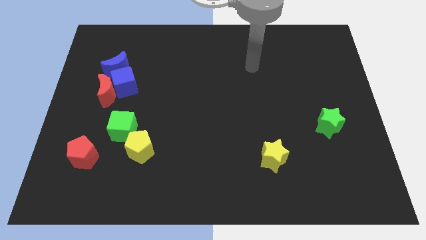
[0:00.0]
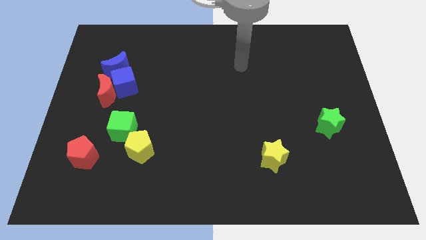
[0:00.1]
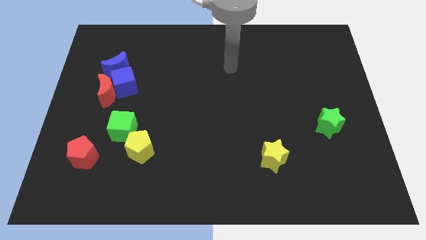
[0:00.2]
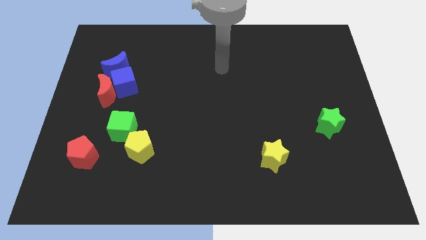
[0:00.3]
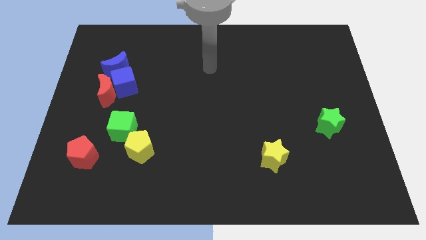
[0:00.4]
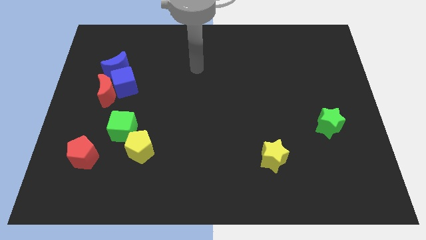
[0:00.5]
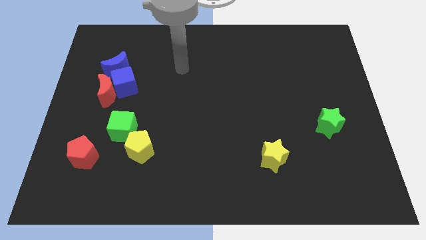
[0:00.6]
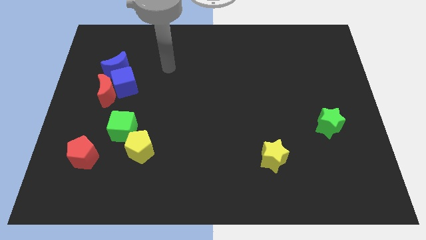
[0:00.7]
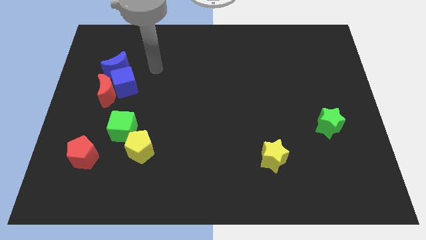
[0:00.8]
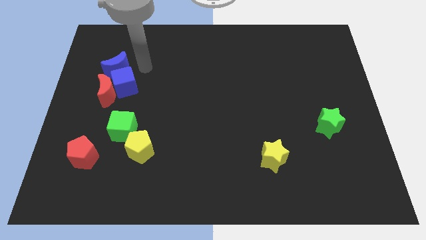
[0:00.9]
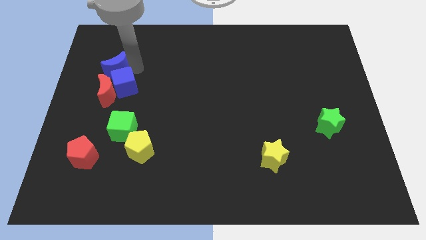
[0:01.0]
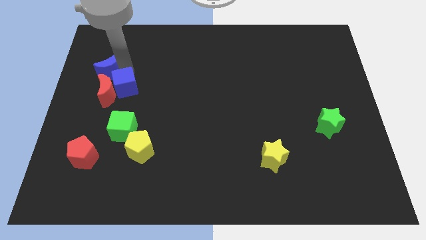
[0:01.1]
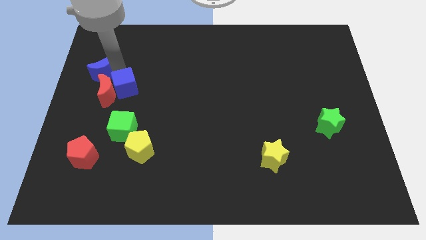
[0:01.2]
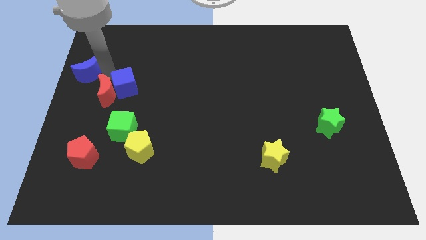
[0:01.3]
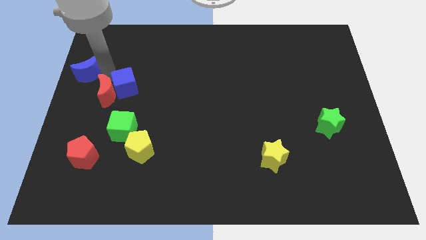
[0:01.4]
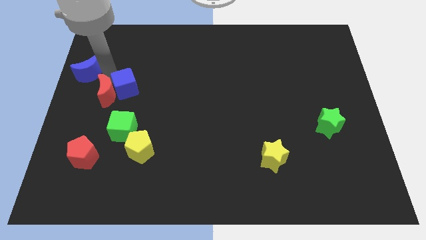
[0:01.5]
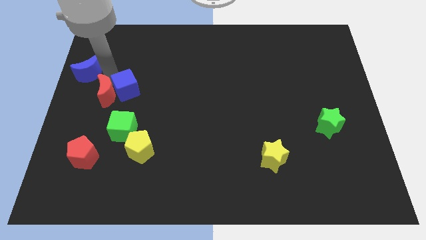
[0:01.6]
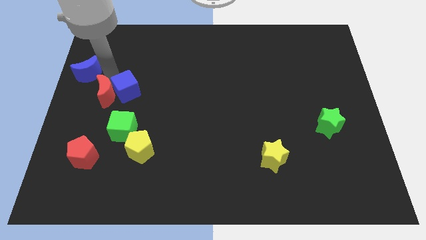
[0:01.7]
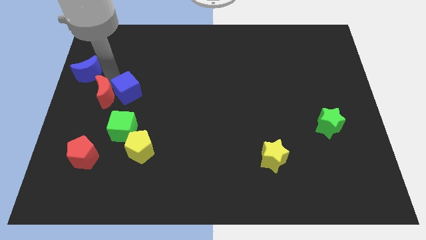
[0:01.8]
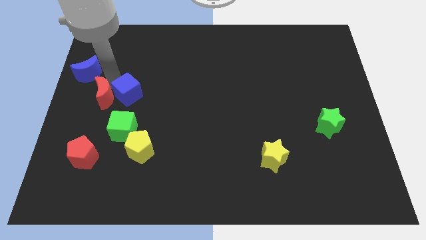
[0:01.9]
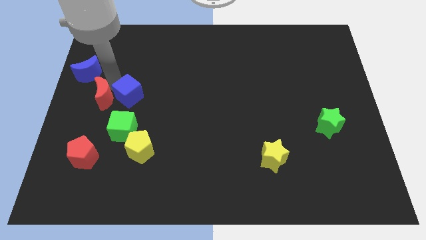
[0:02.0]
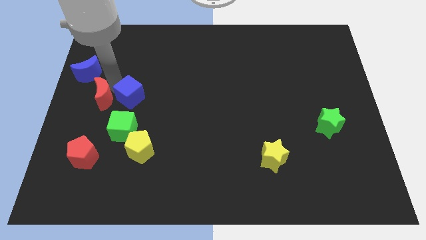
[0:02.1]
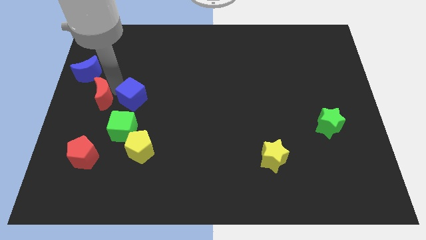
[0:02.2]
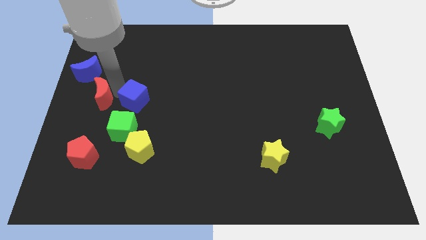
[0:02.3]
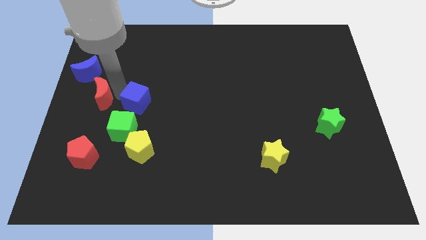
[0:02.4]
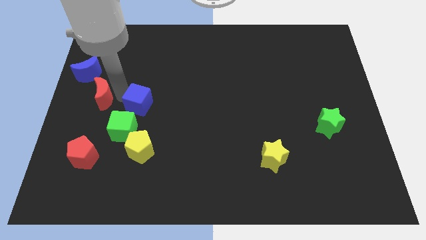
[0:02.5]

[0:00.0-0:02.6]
slightly move the blue cube downwards and to the right diagonally

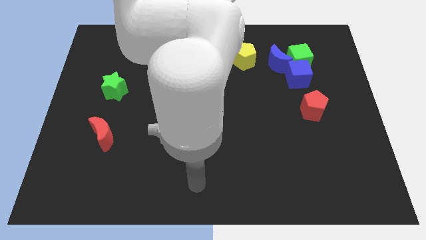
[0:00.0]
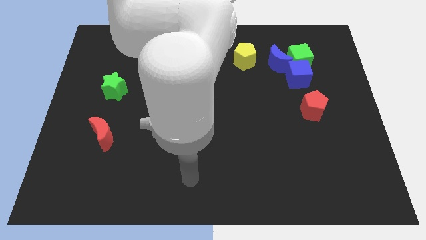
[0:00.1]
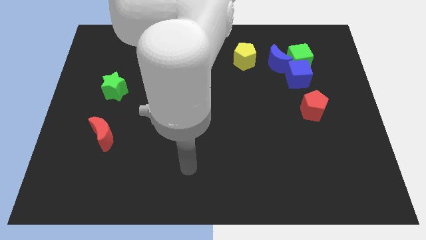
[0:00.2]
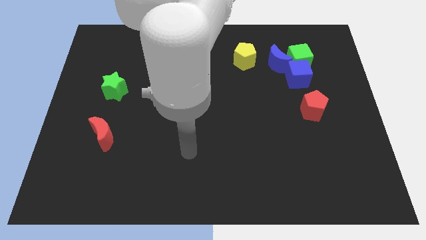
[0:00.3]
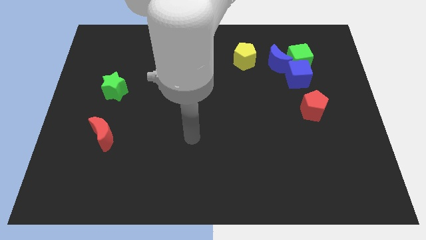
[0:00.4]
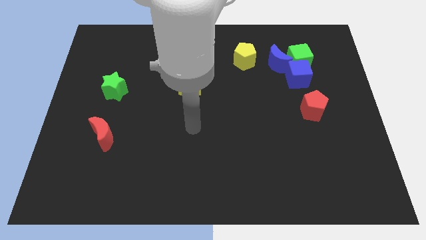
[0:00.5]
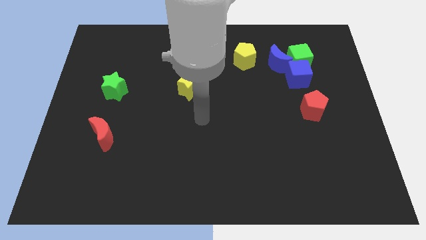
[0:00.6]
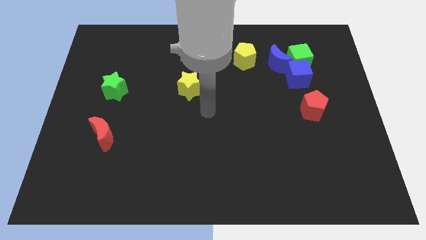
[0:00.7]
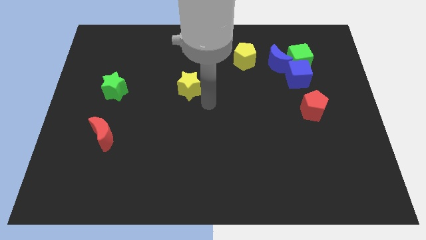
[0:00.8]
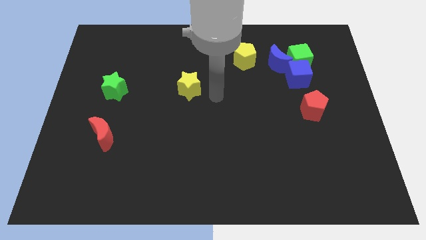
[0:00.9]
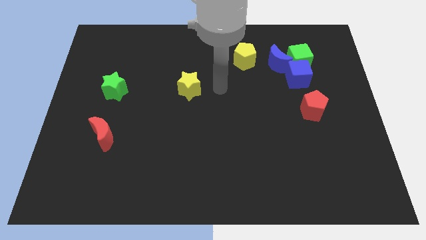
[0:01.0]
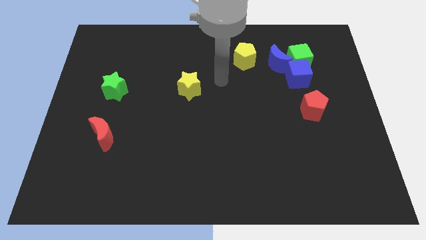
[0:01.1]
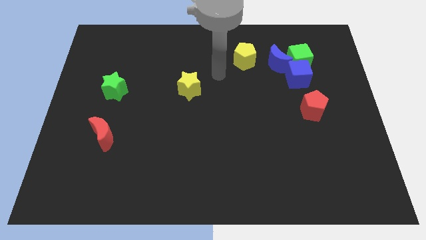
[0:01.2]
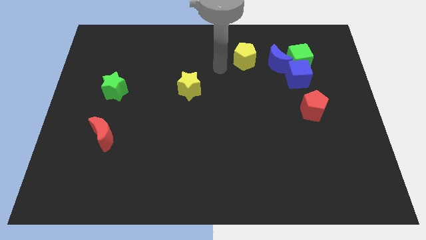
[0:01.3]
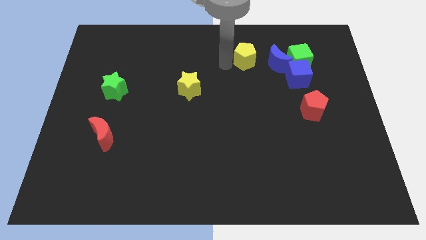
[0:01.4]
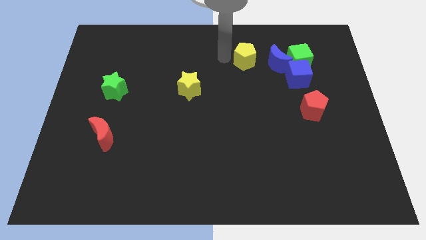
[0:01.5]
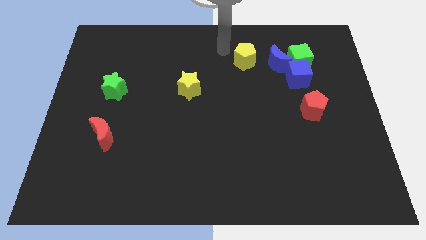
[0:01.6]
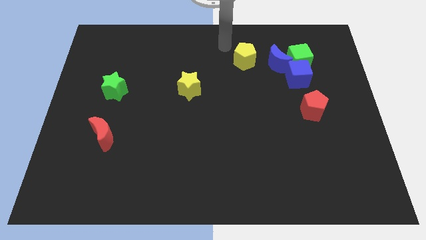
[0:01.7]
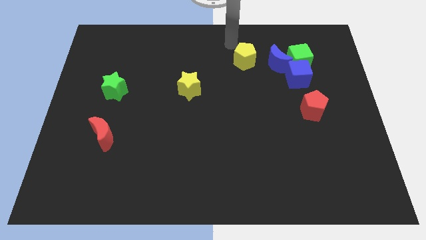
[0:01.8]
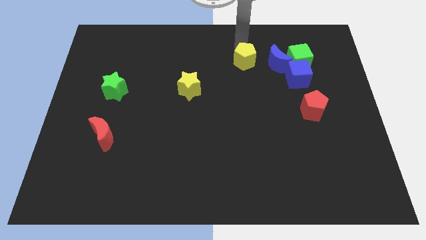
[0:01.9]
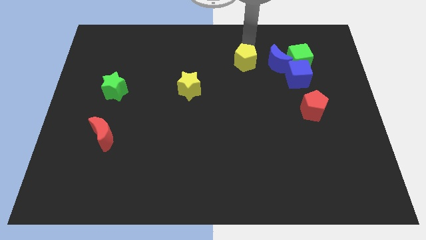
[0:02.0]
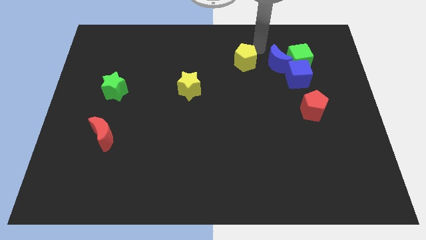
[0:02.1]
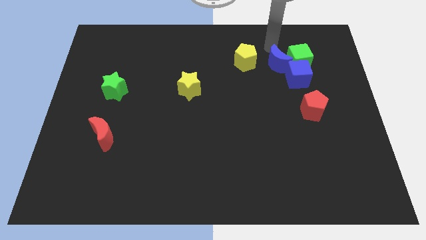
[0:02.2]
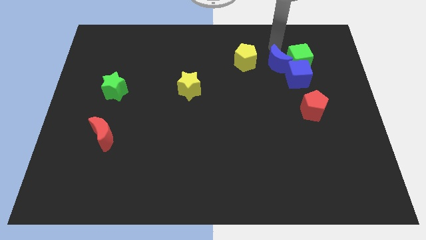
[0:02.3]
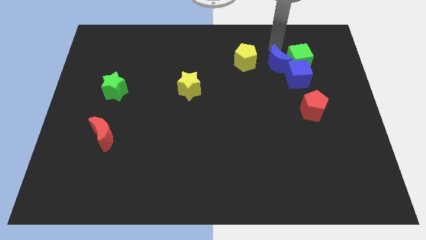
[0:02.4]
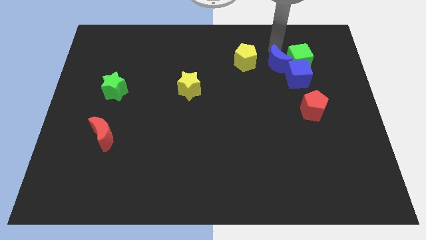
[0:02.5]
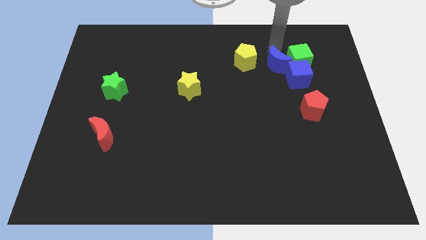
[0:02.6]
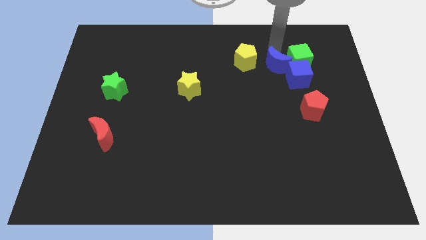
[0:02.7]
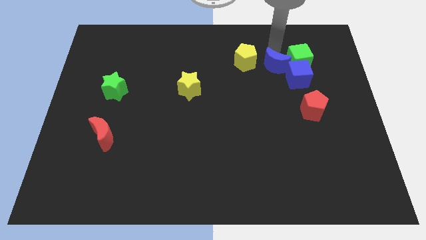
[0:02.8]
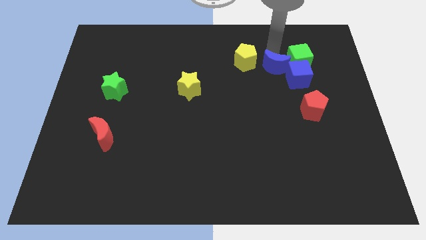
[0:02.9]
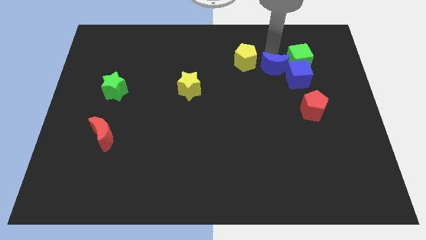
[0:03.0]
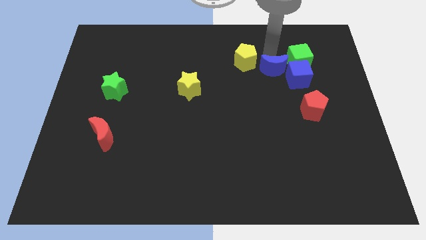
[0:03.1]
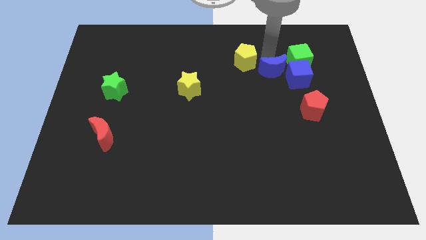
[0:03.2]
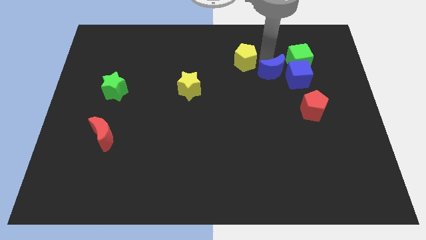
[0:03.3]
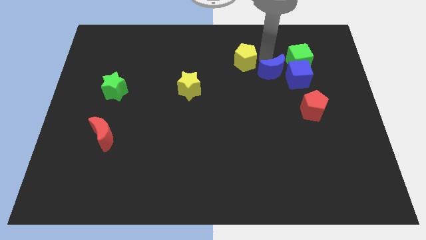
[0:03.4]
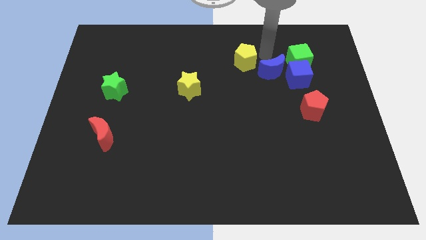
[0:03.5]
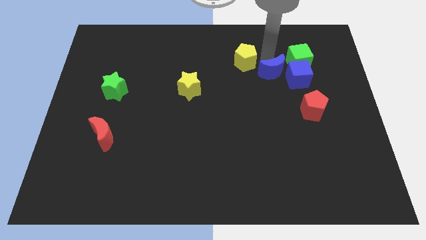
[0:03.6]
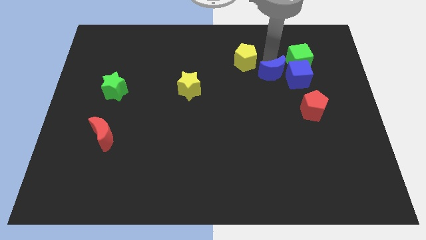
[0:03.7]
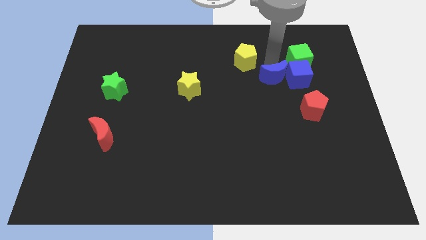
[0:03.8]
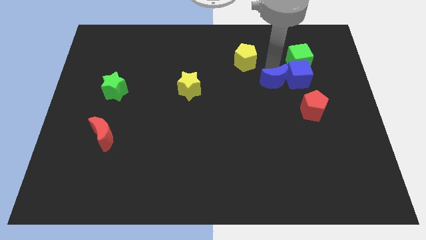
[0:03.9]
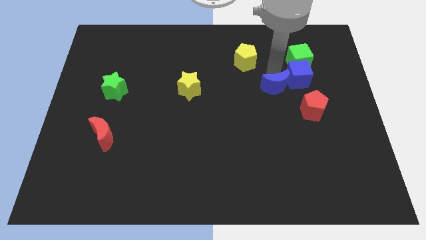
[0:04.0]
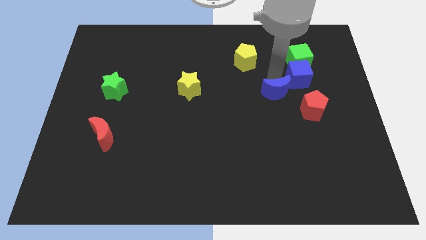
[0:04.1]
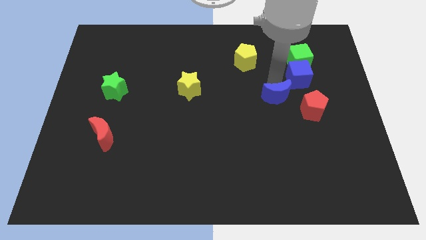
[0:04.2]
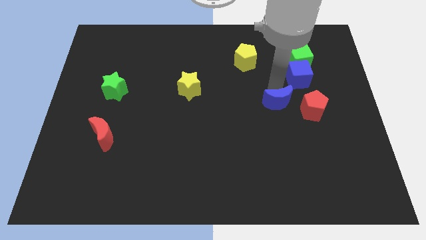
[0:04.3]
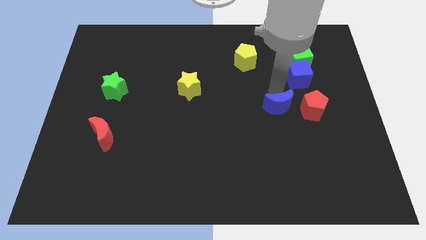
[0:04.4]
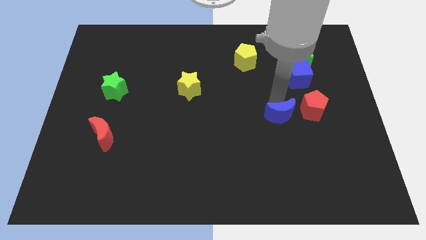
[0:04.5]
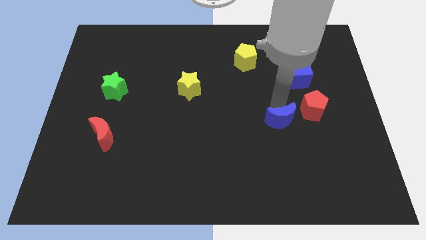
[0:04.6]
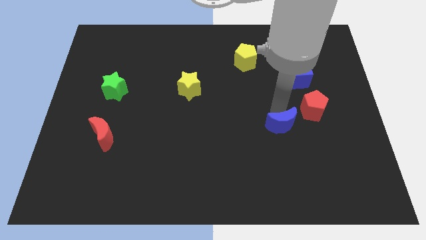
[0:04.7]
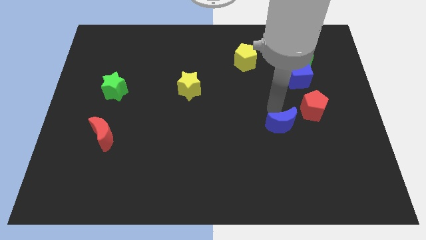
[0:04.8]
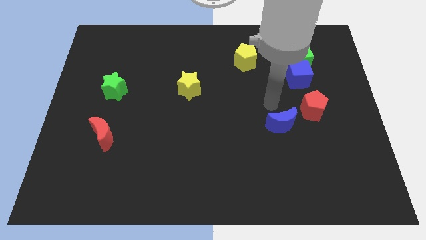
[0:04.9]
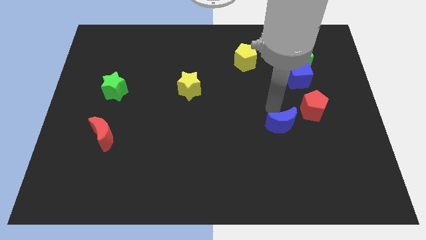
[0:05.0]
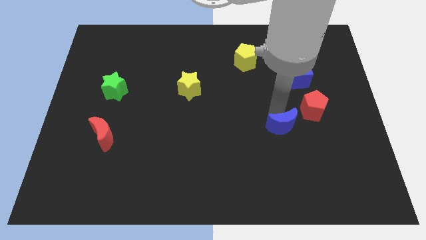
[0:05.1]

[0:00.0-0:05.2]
move the blue moon downwards
